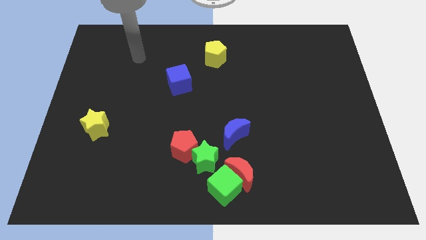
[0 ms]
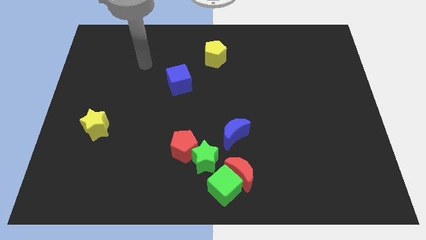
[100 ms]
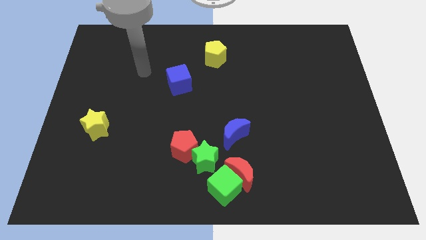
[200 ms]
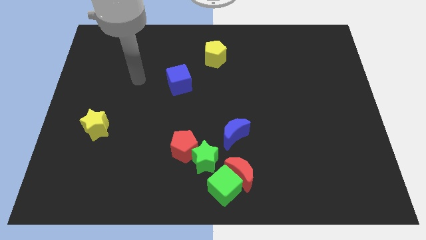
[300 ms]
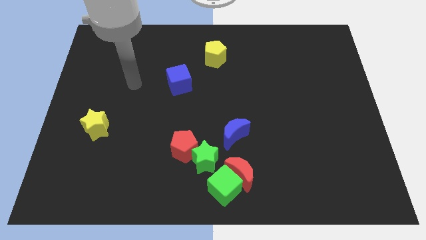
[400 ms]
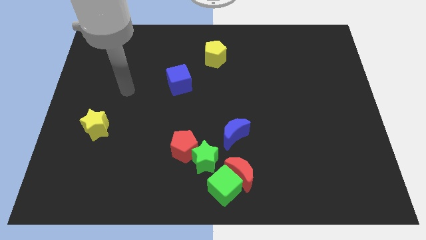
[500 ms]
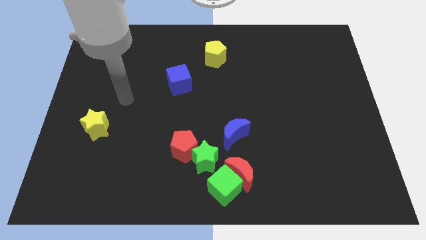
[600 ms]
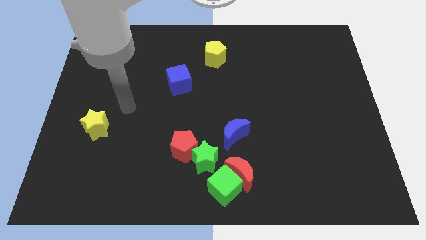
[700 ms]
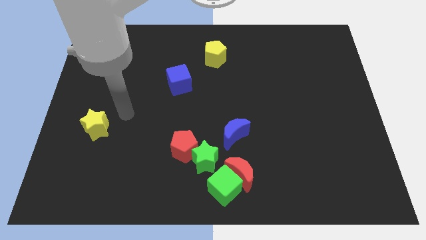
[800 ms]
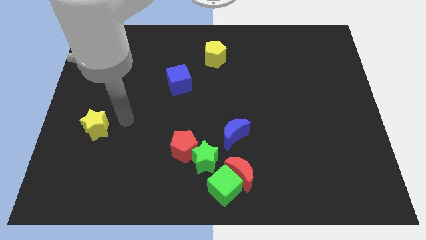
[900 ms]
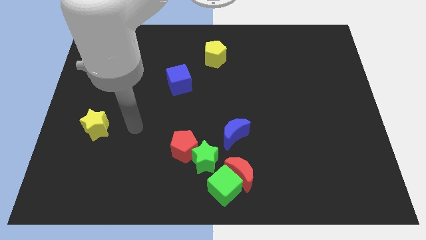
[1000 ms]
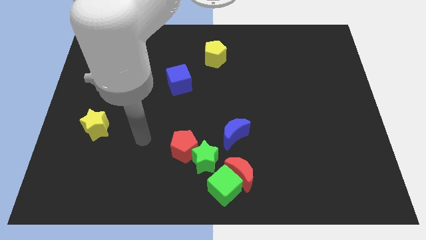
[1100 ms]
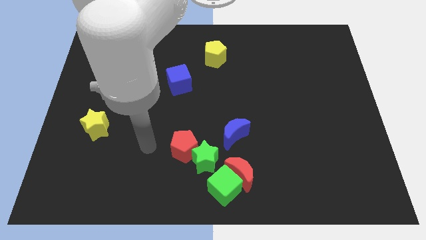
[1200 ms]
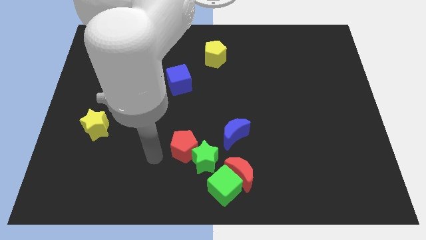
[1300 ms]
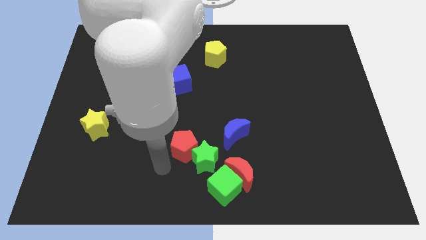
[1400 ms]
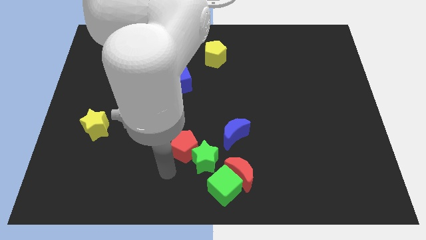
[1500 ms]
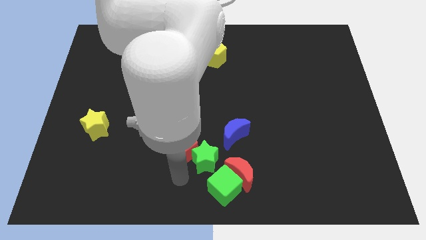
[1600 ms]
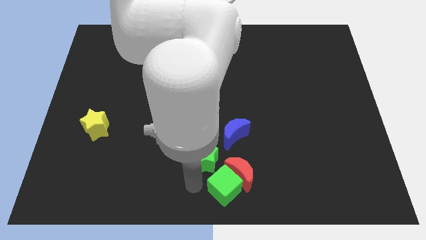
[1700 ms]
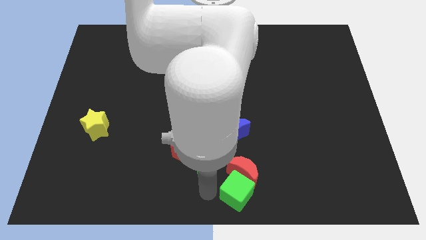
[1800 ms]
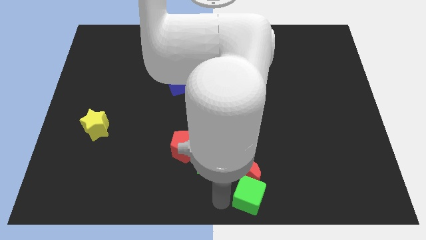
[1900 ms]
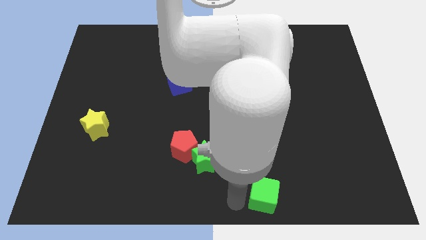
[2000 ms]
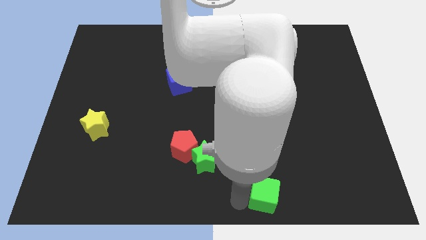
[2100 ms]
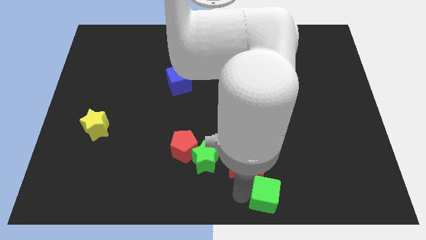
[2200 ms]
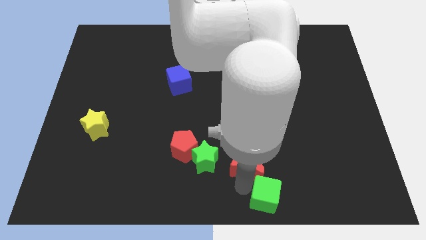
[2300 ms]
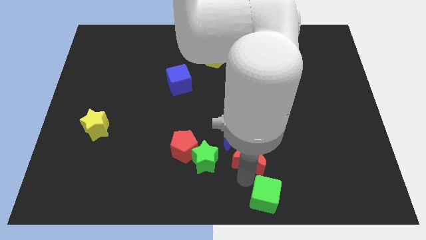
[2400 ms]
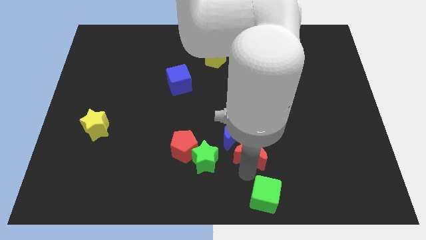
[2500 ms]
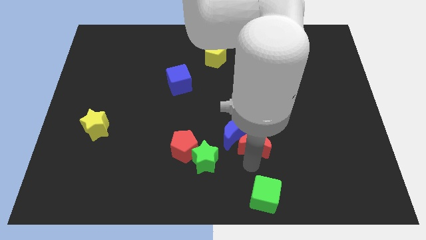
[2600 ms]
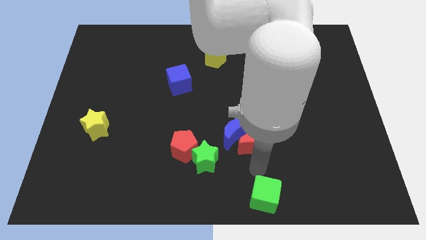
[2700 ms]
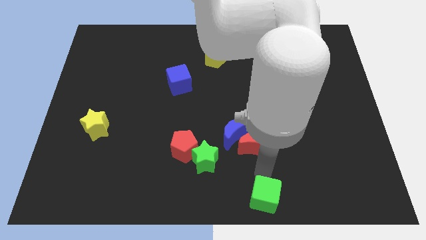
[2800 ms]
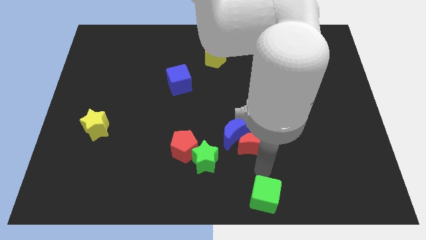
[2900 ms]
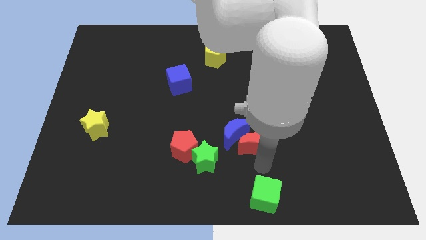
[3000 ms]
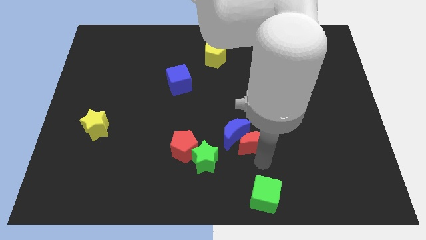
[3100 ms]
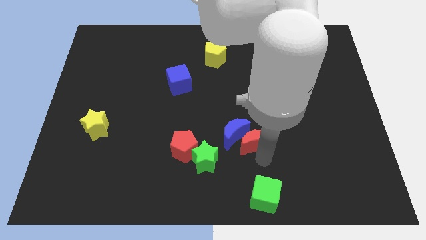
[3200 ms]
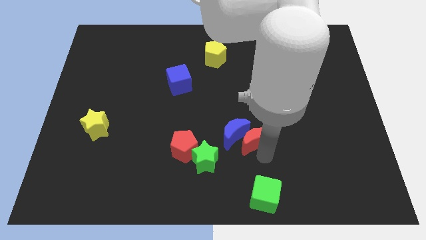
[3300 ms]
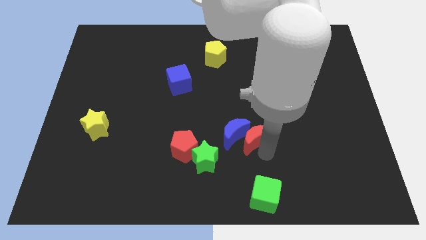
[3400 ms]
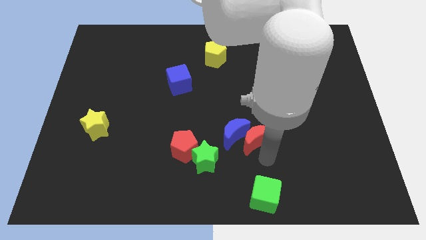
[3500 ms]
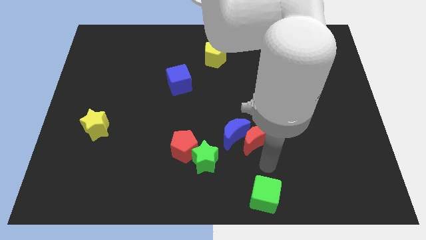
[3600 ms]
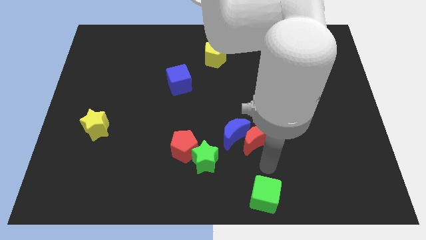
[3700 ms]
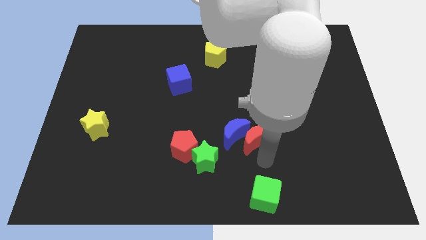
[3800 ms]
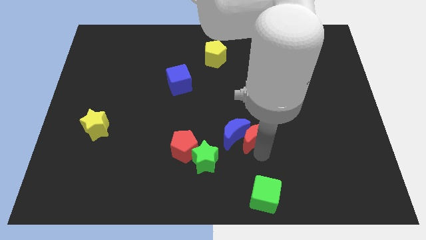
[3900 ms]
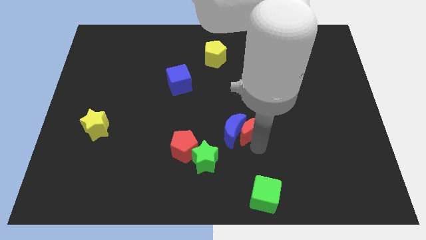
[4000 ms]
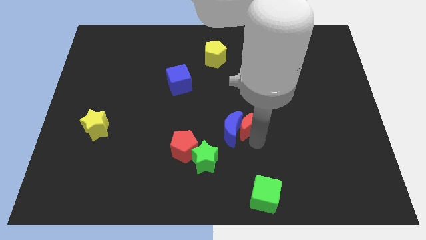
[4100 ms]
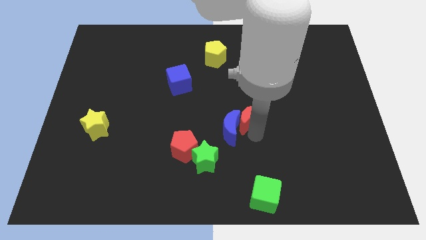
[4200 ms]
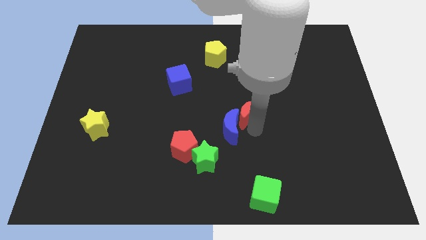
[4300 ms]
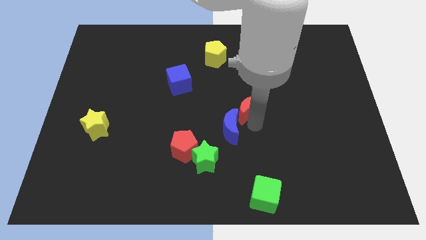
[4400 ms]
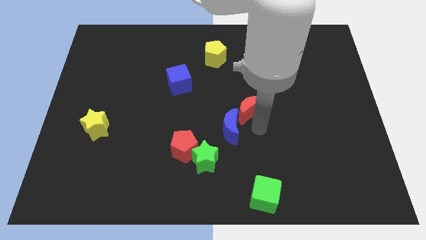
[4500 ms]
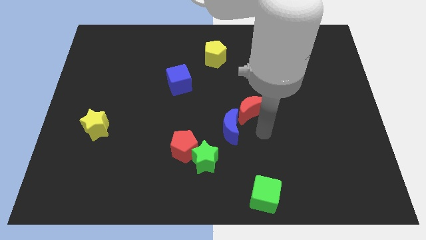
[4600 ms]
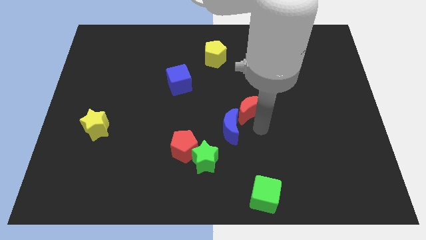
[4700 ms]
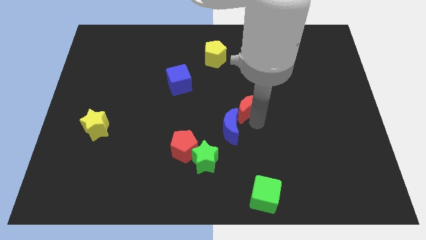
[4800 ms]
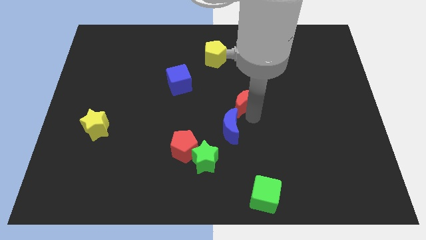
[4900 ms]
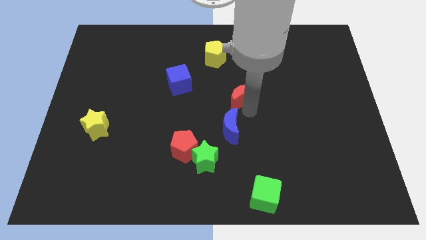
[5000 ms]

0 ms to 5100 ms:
move the red moon upwards

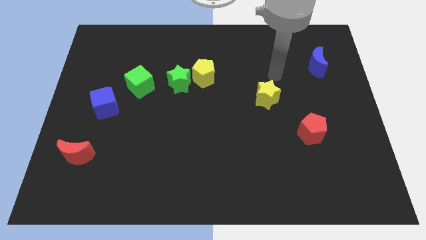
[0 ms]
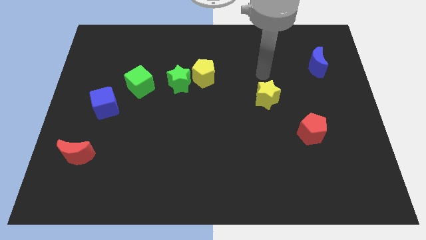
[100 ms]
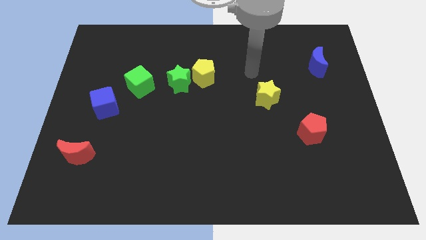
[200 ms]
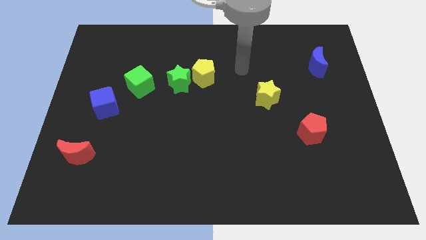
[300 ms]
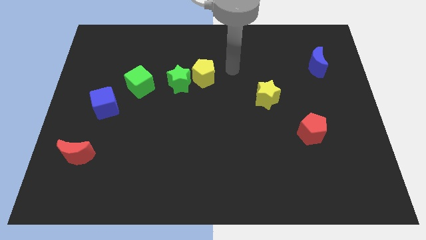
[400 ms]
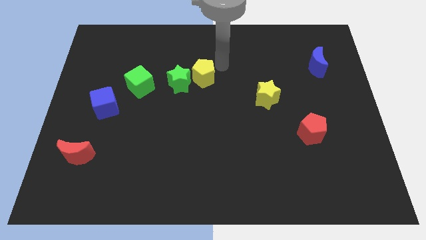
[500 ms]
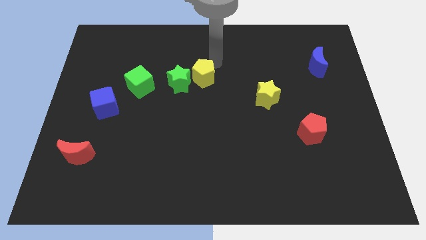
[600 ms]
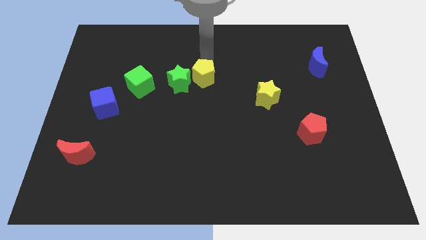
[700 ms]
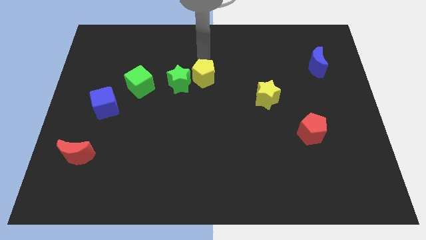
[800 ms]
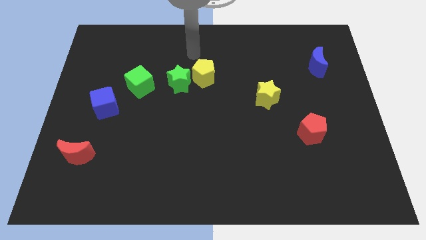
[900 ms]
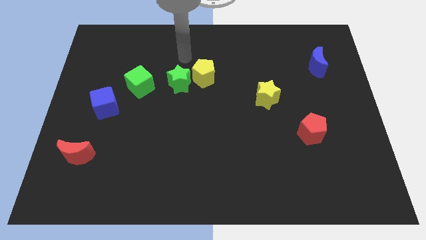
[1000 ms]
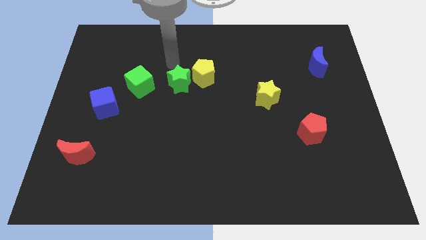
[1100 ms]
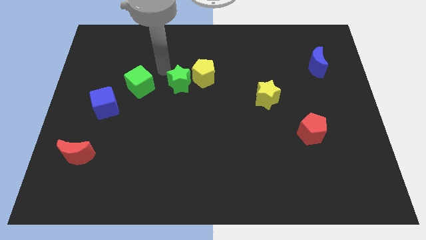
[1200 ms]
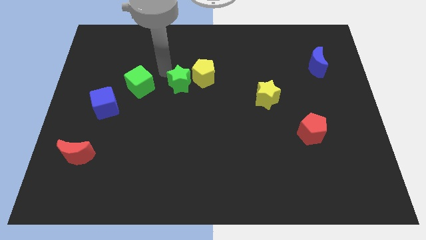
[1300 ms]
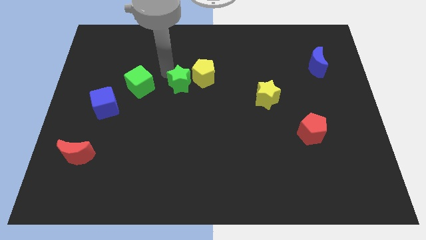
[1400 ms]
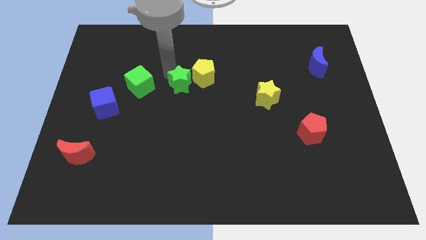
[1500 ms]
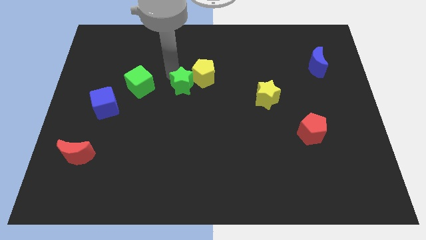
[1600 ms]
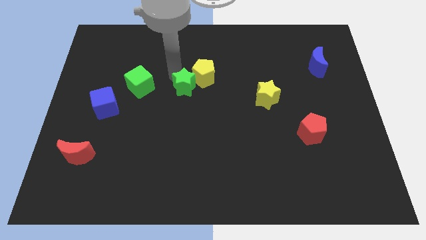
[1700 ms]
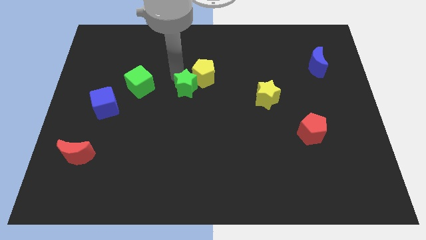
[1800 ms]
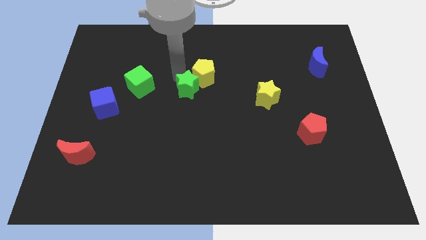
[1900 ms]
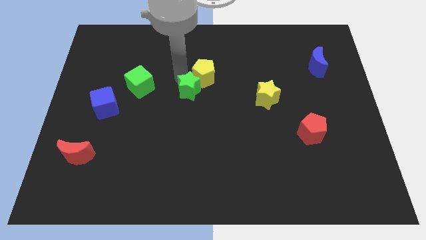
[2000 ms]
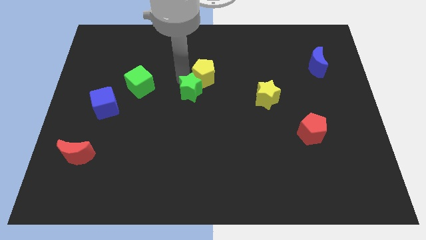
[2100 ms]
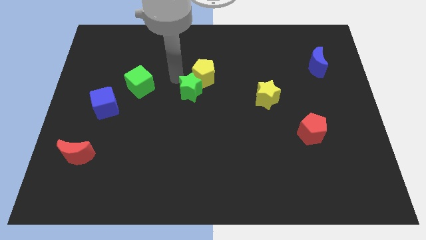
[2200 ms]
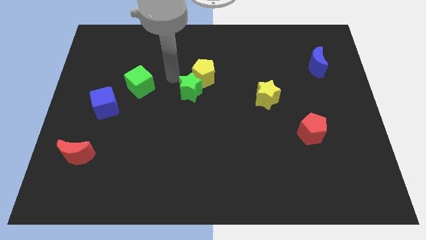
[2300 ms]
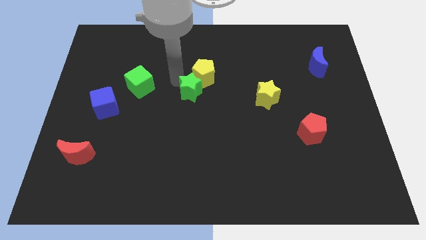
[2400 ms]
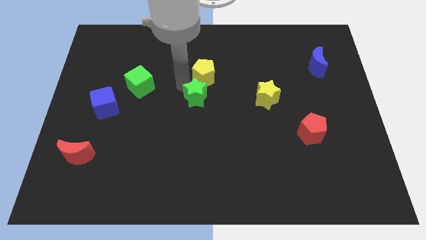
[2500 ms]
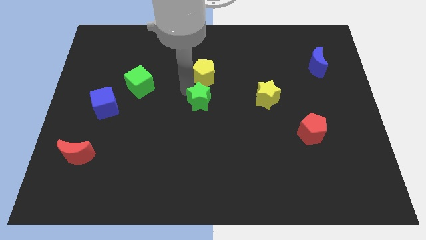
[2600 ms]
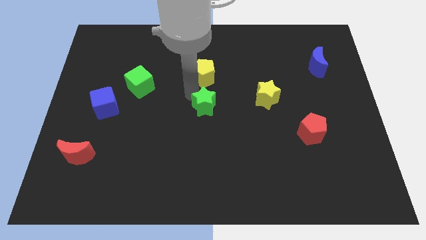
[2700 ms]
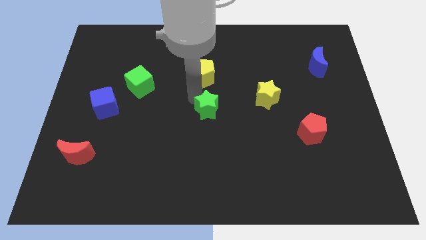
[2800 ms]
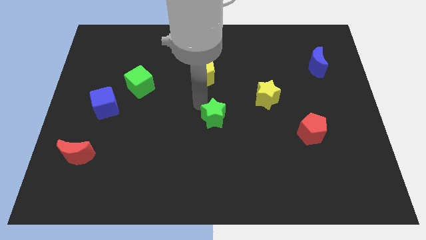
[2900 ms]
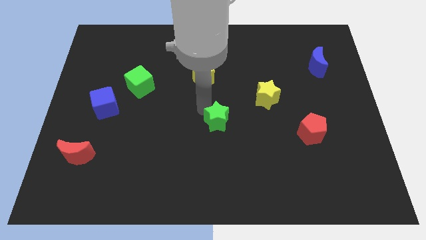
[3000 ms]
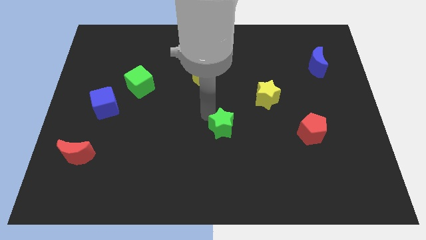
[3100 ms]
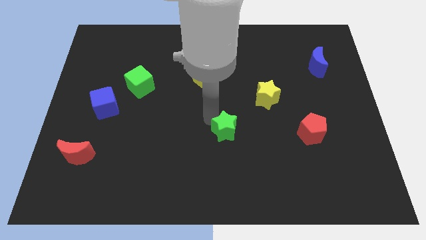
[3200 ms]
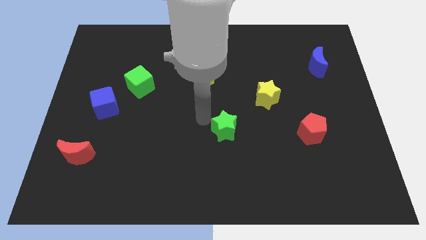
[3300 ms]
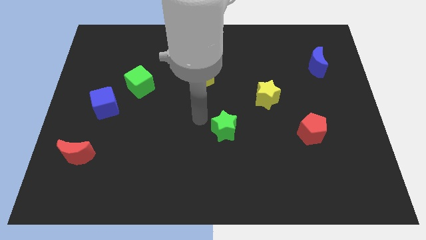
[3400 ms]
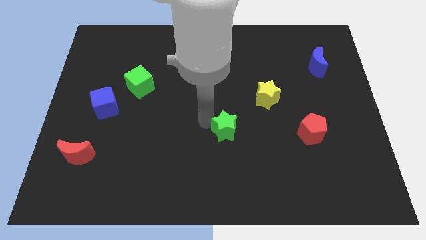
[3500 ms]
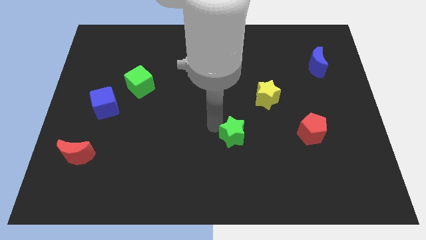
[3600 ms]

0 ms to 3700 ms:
slide the green star diagonally downwards and to the right
